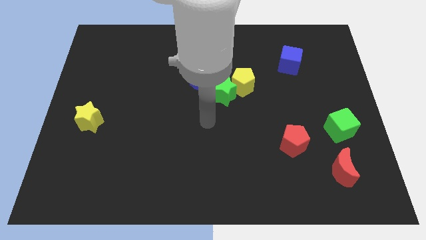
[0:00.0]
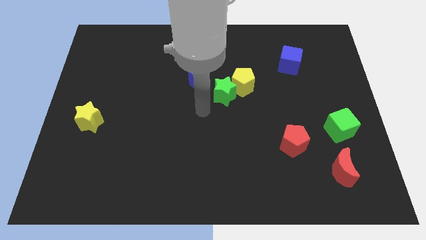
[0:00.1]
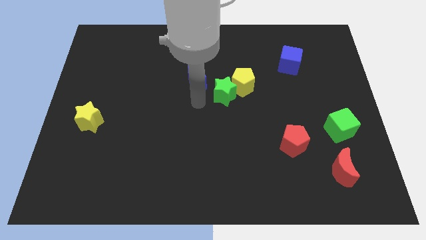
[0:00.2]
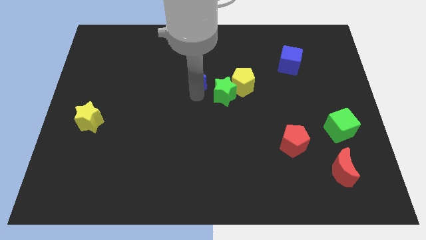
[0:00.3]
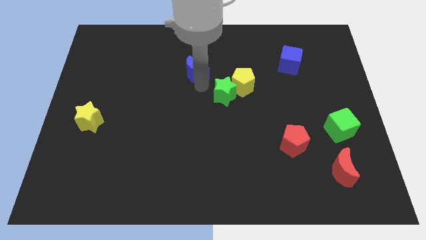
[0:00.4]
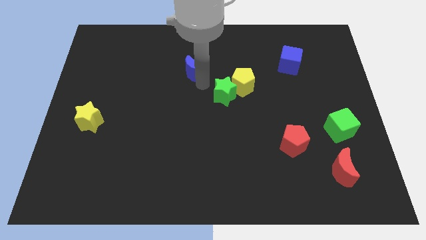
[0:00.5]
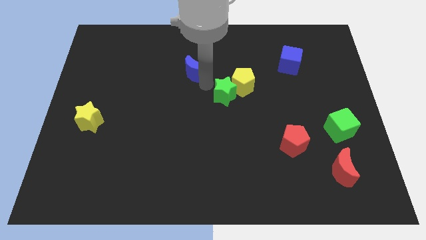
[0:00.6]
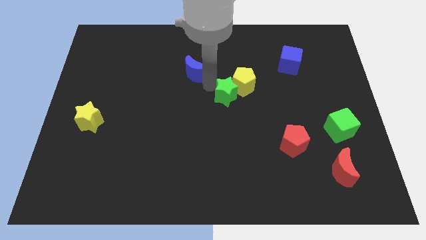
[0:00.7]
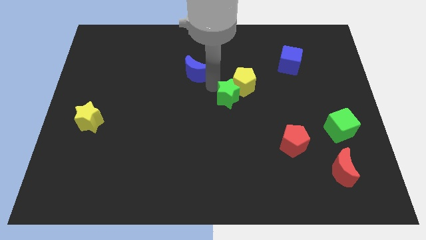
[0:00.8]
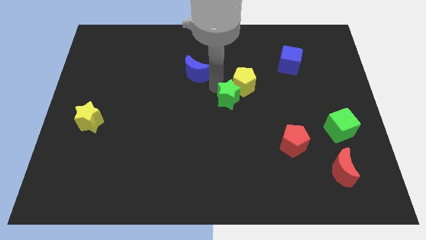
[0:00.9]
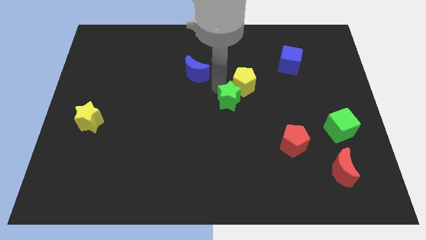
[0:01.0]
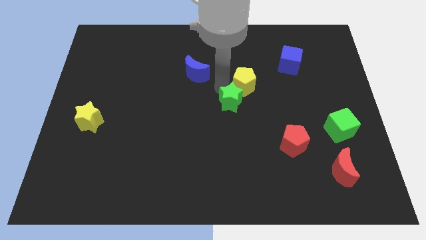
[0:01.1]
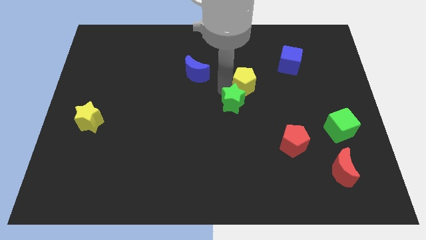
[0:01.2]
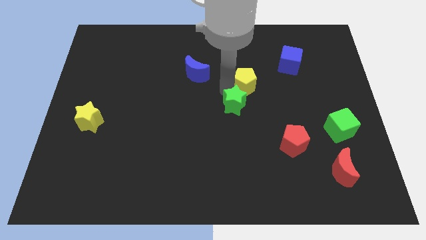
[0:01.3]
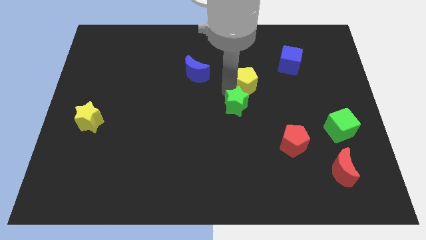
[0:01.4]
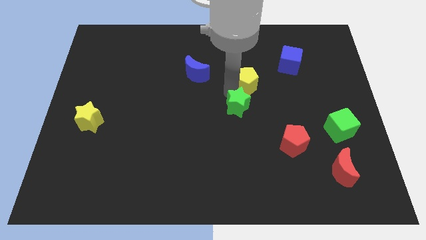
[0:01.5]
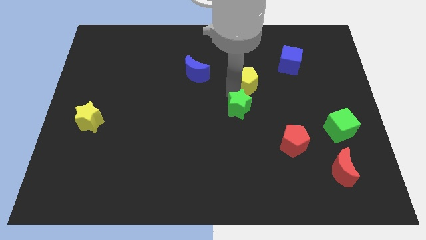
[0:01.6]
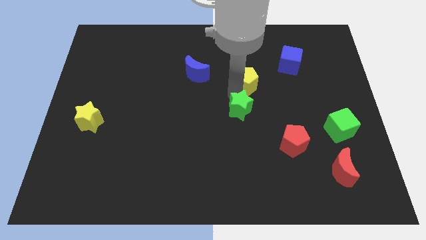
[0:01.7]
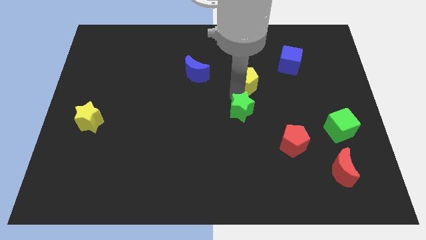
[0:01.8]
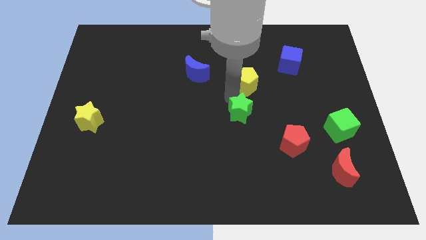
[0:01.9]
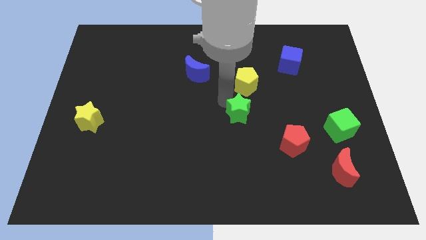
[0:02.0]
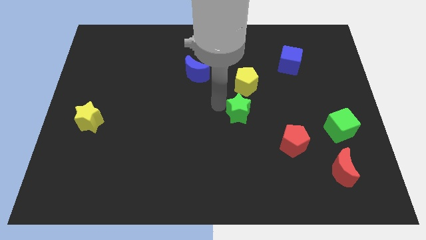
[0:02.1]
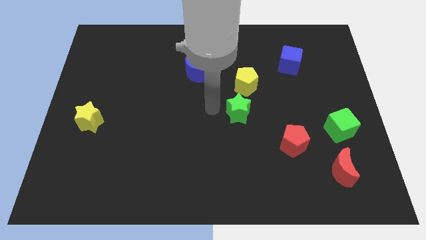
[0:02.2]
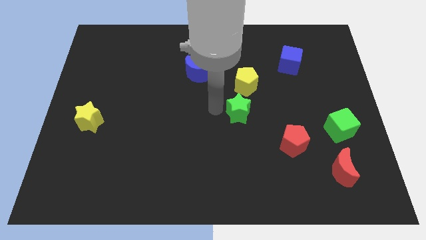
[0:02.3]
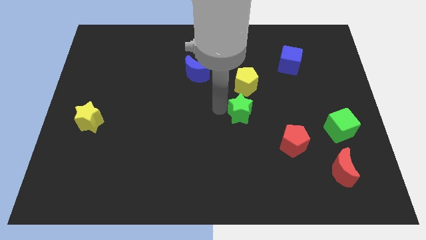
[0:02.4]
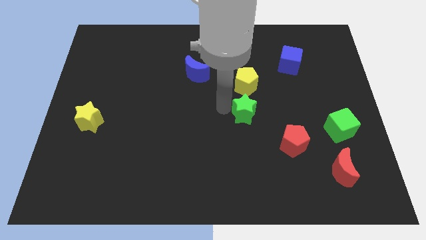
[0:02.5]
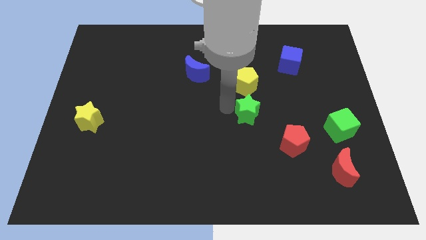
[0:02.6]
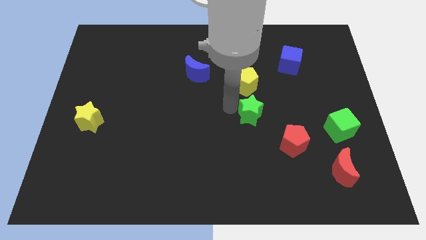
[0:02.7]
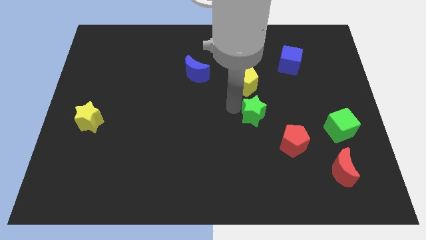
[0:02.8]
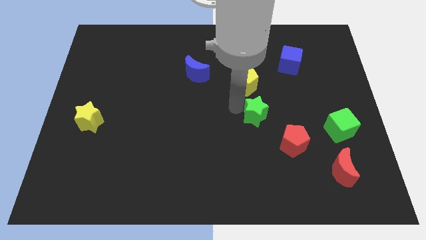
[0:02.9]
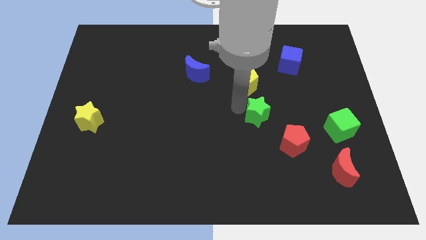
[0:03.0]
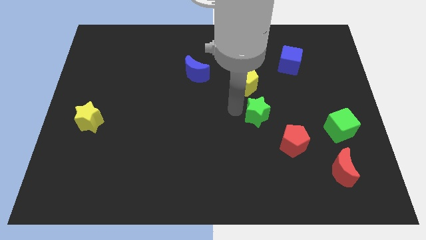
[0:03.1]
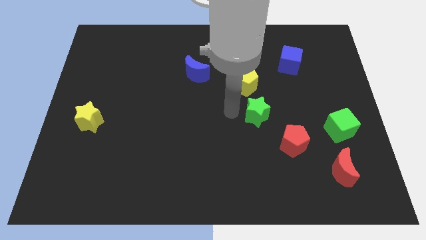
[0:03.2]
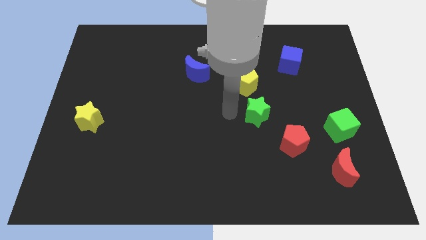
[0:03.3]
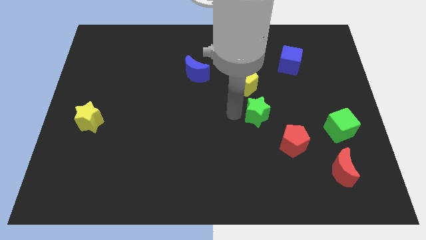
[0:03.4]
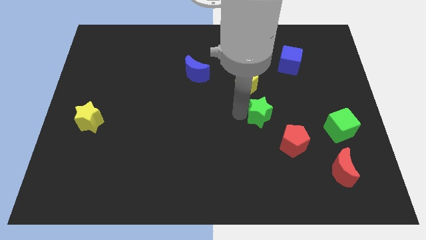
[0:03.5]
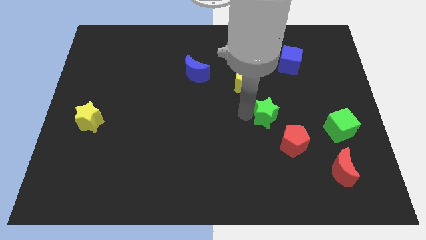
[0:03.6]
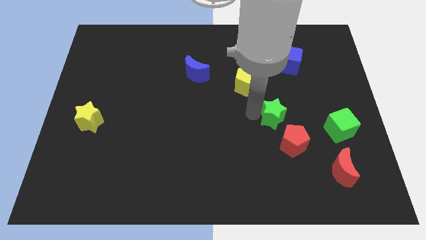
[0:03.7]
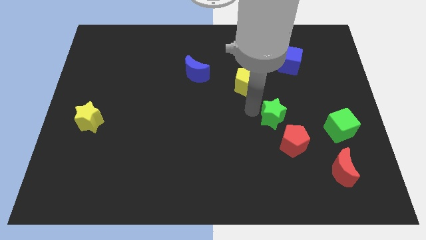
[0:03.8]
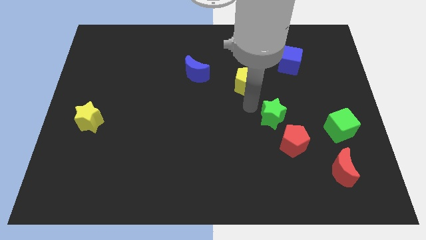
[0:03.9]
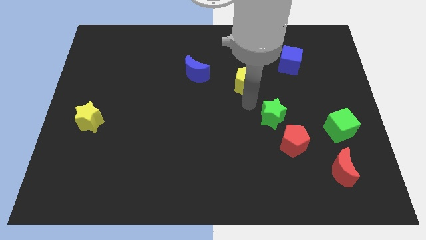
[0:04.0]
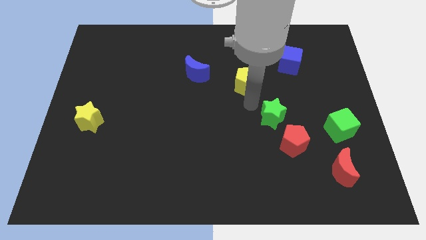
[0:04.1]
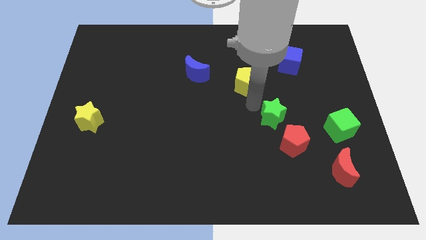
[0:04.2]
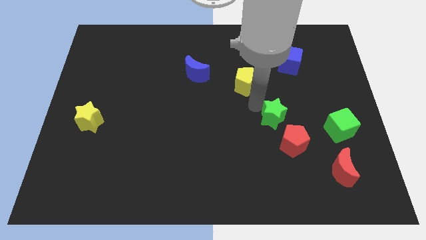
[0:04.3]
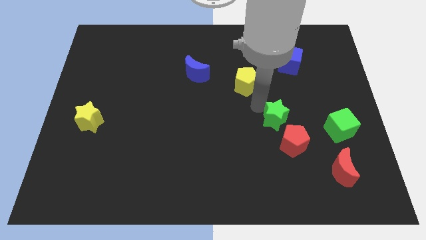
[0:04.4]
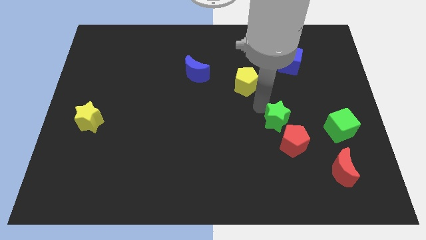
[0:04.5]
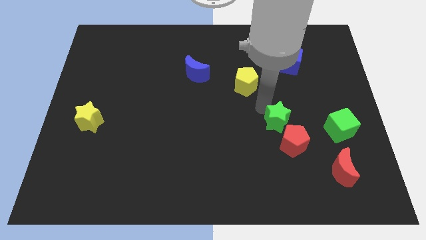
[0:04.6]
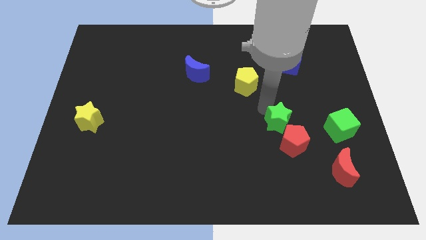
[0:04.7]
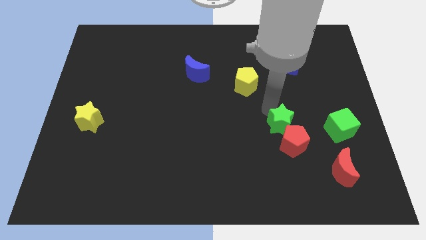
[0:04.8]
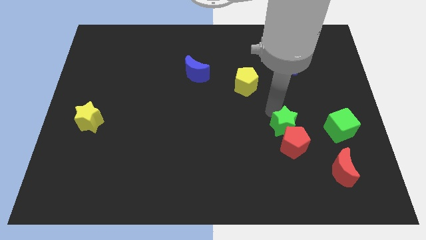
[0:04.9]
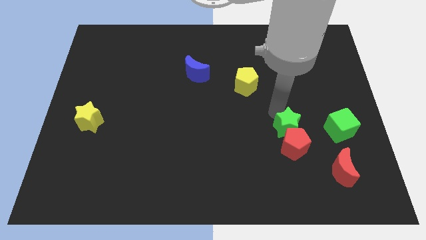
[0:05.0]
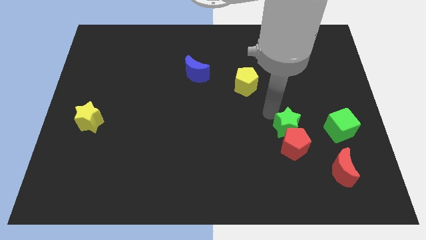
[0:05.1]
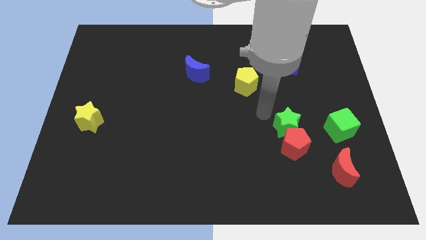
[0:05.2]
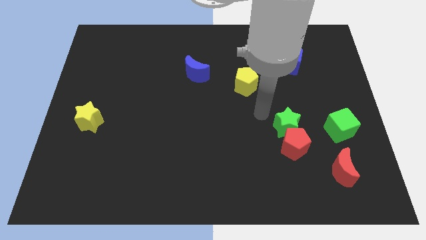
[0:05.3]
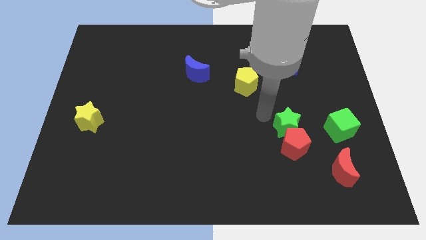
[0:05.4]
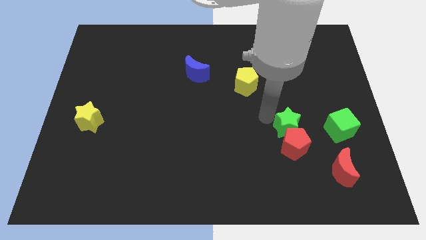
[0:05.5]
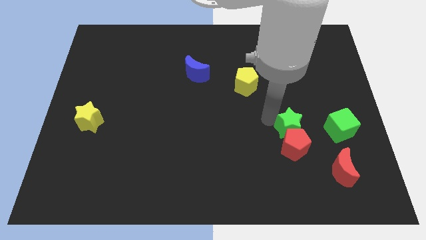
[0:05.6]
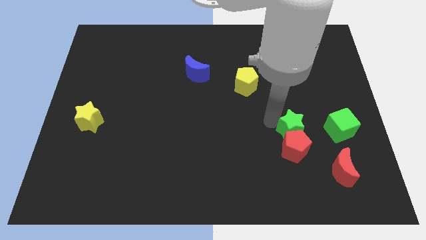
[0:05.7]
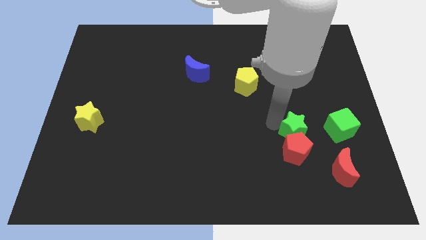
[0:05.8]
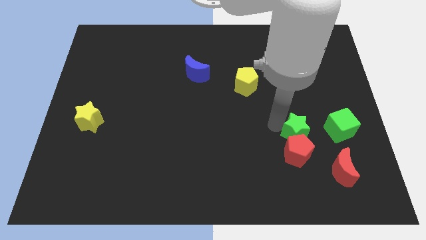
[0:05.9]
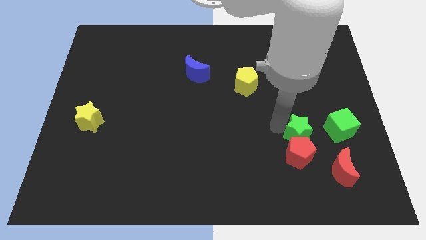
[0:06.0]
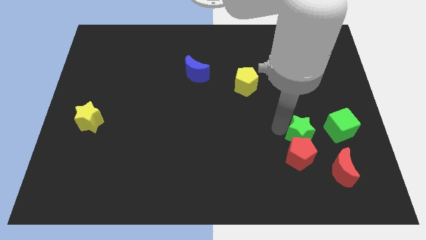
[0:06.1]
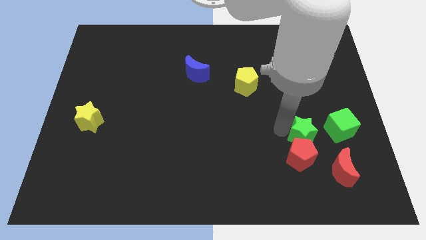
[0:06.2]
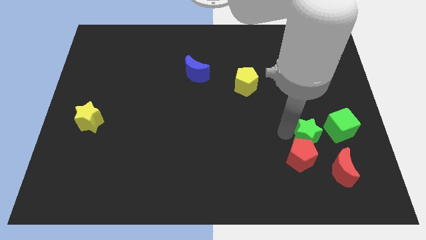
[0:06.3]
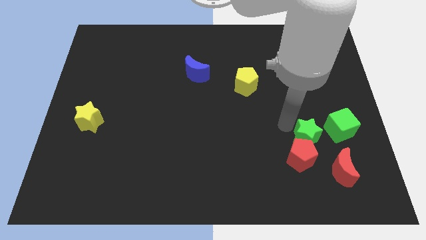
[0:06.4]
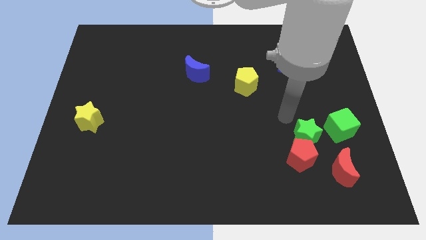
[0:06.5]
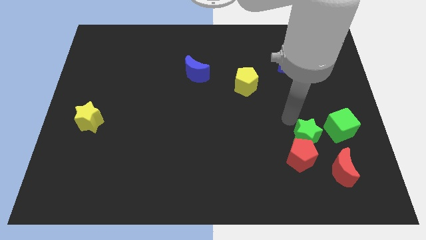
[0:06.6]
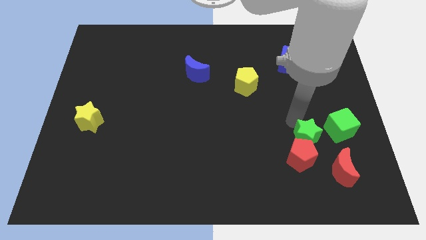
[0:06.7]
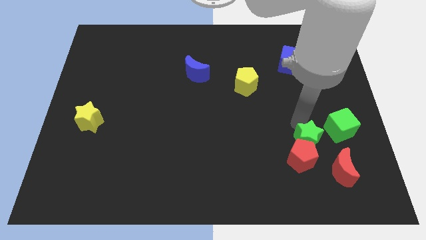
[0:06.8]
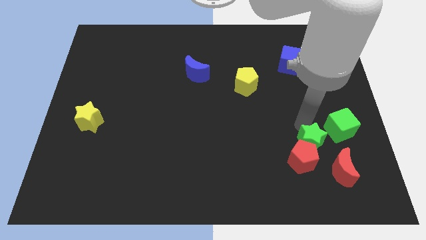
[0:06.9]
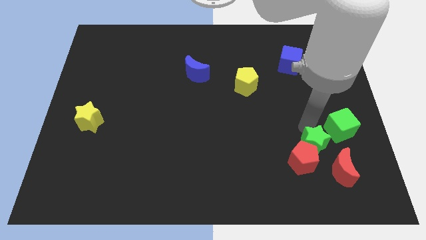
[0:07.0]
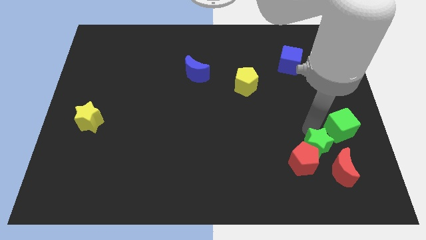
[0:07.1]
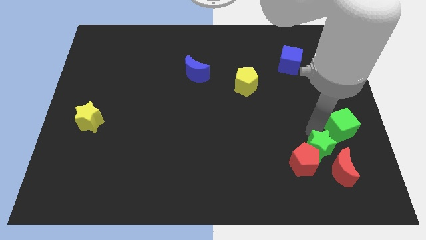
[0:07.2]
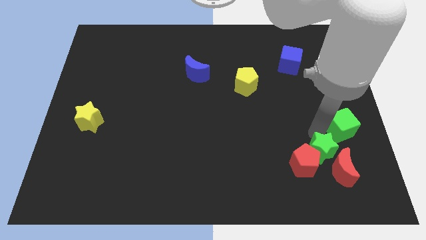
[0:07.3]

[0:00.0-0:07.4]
move the green star to the red moon

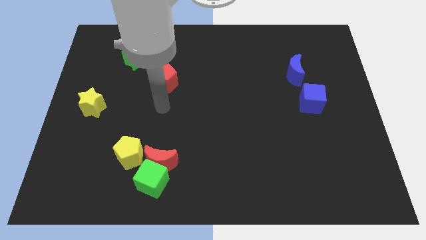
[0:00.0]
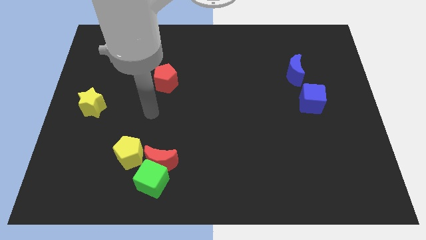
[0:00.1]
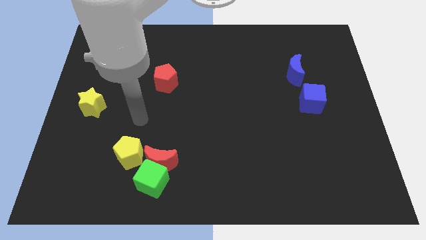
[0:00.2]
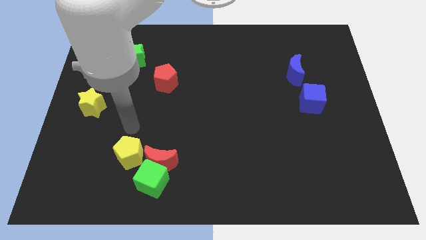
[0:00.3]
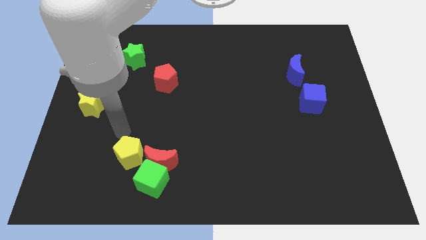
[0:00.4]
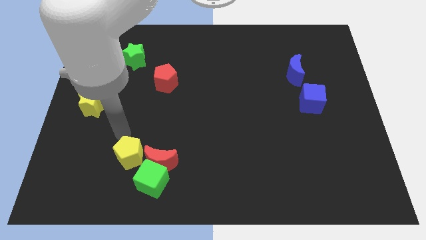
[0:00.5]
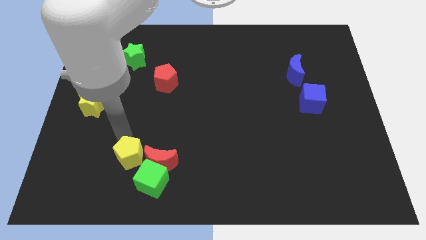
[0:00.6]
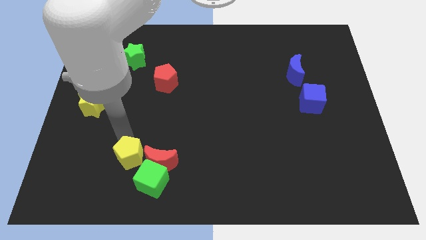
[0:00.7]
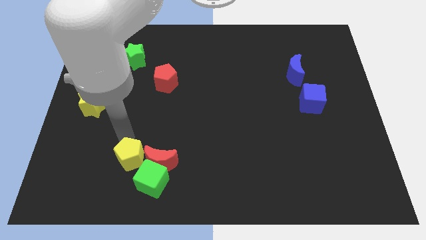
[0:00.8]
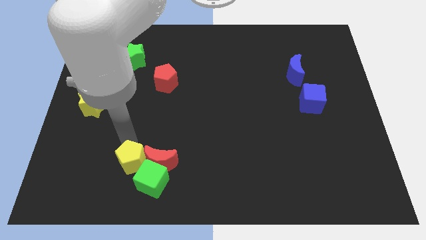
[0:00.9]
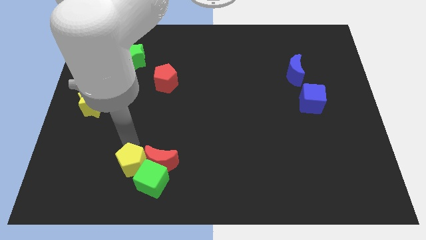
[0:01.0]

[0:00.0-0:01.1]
put the yellow pentagon next to the green cube
